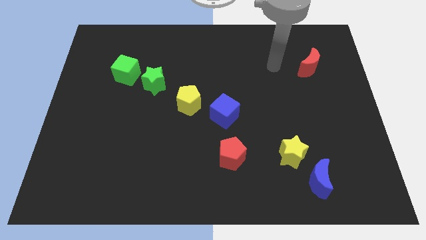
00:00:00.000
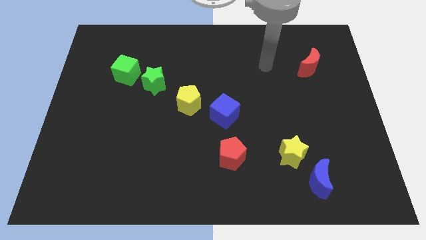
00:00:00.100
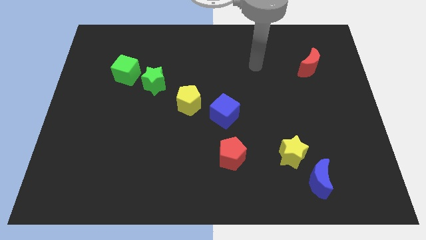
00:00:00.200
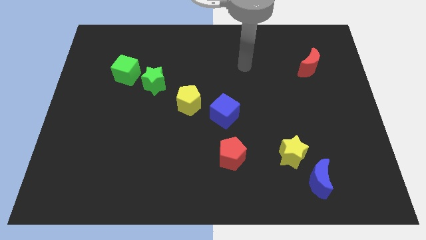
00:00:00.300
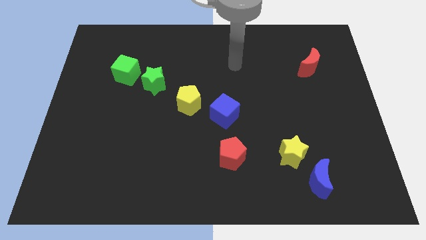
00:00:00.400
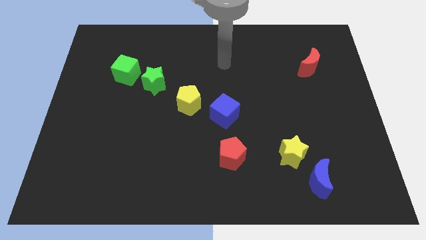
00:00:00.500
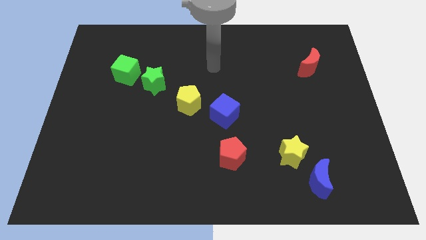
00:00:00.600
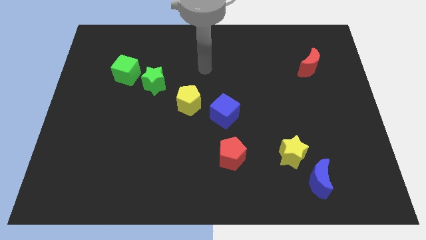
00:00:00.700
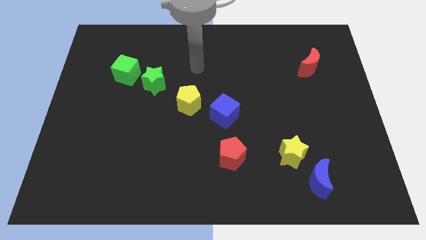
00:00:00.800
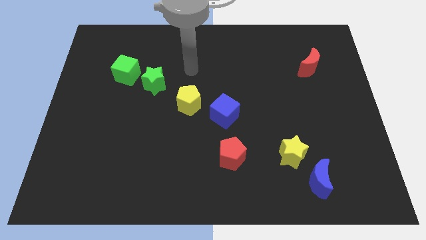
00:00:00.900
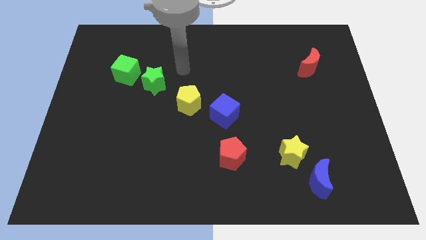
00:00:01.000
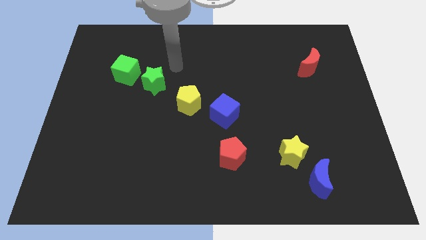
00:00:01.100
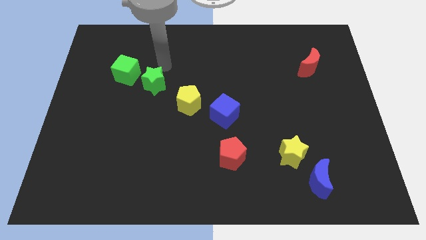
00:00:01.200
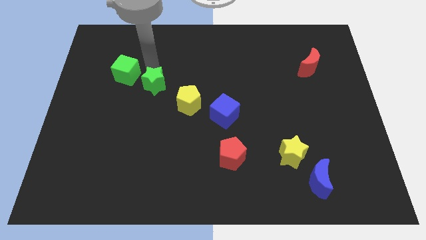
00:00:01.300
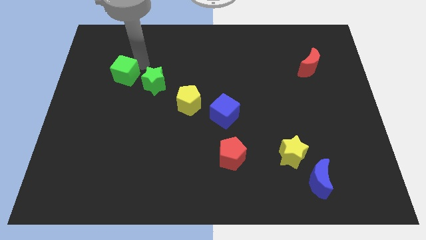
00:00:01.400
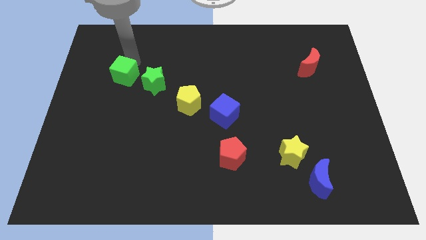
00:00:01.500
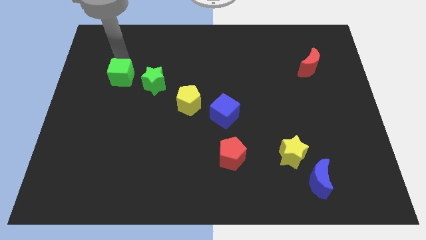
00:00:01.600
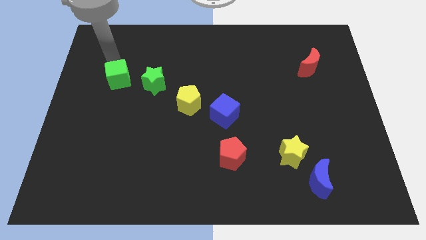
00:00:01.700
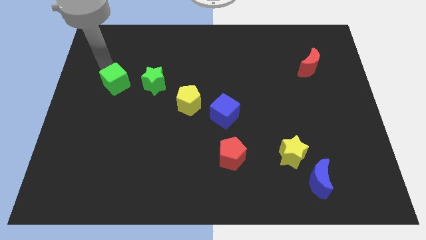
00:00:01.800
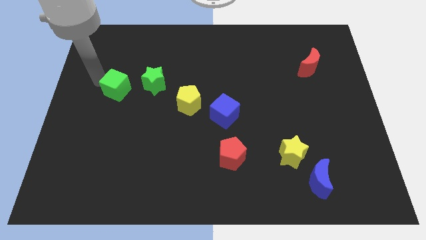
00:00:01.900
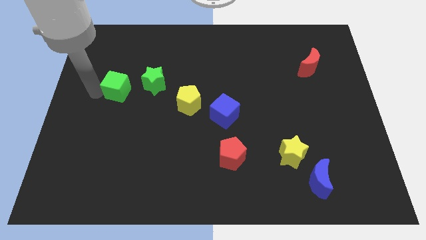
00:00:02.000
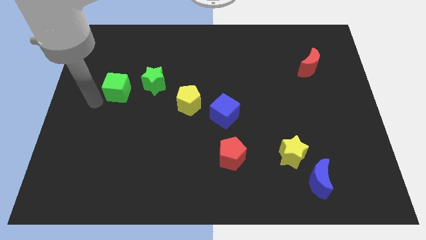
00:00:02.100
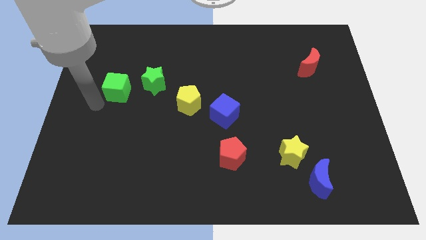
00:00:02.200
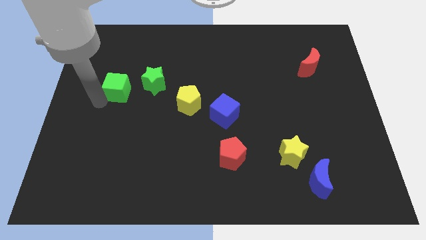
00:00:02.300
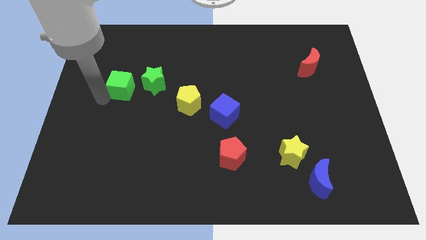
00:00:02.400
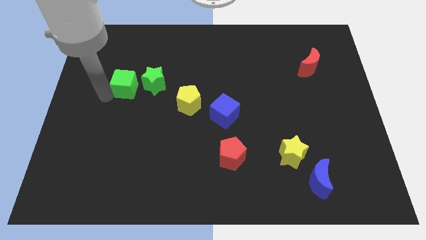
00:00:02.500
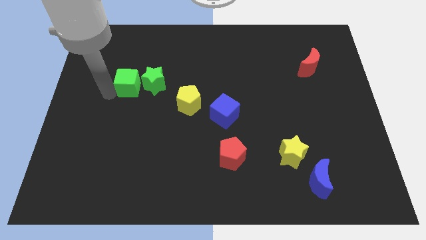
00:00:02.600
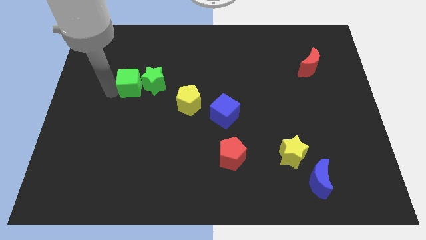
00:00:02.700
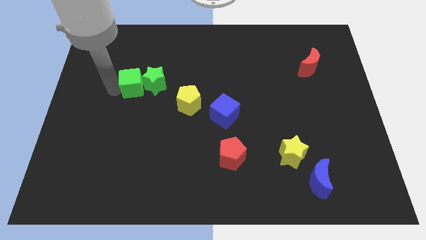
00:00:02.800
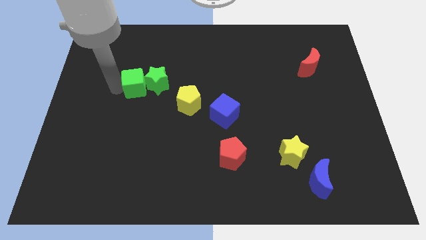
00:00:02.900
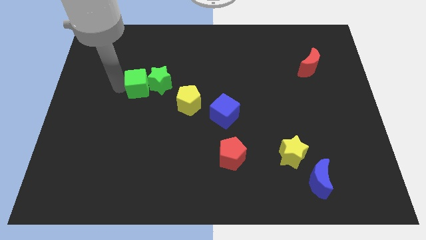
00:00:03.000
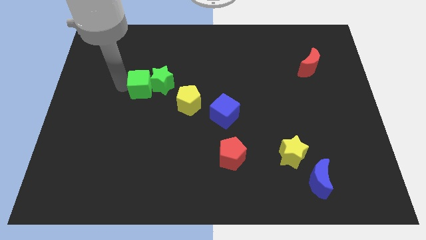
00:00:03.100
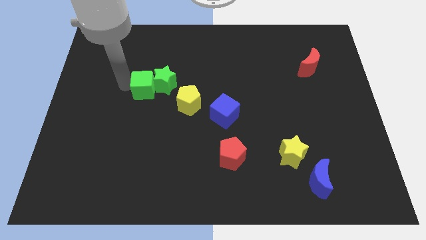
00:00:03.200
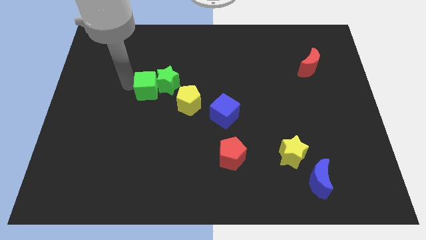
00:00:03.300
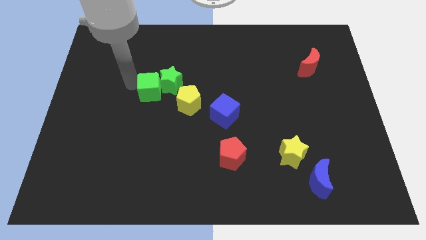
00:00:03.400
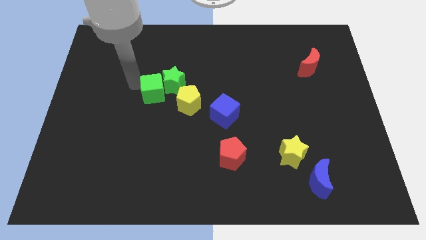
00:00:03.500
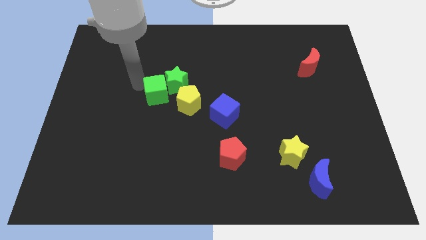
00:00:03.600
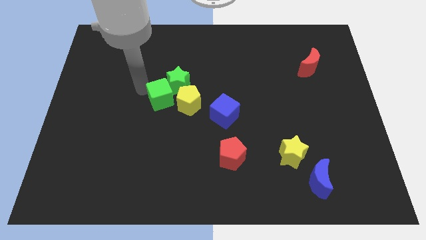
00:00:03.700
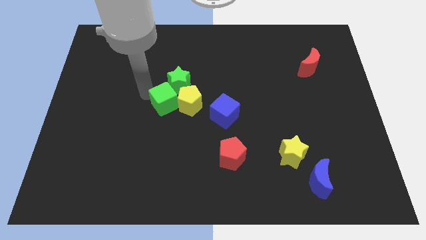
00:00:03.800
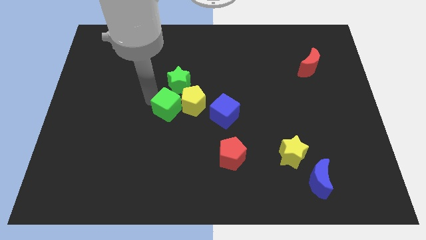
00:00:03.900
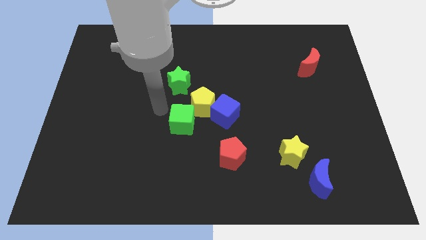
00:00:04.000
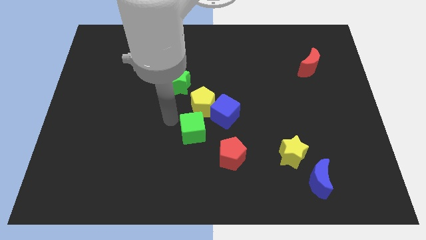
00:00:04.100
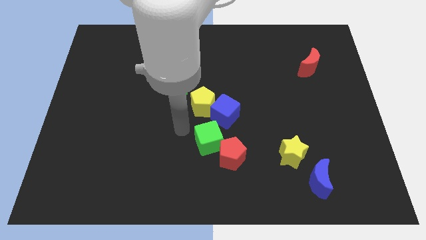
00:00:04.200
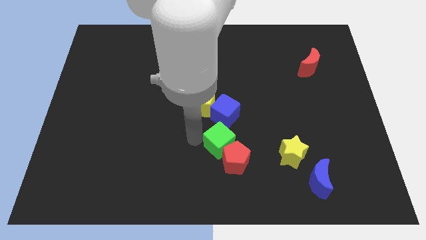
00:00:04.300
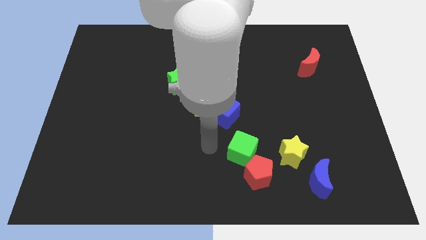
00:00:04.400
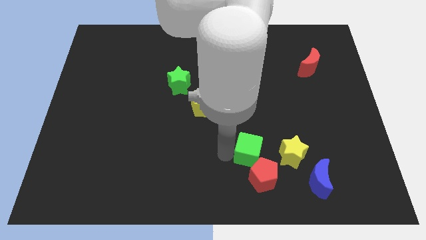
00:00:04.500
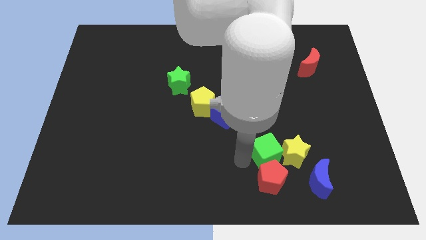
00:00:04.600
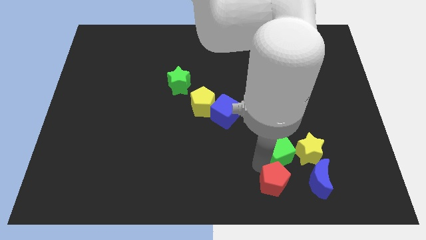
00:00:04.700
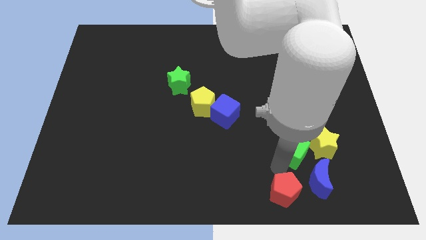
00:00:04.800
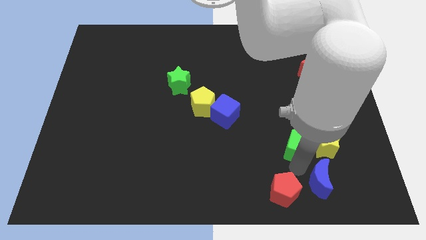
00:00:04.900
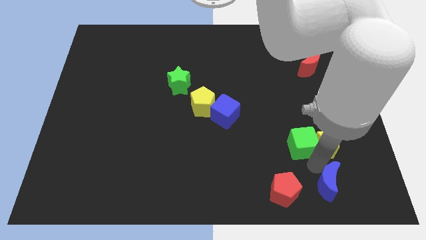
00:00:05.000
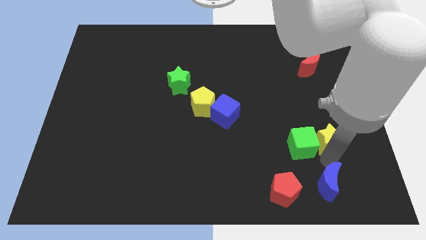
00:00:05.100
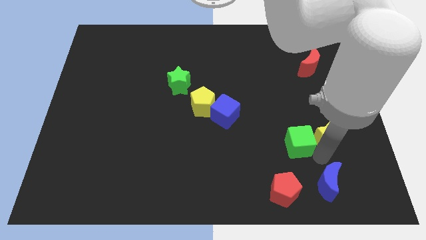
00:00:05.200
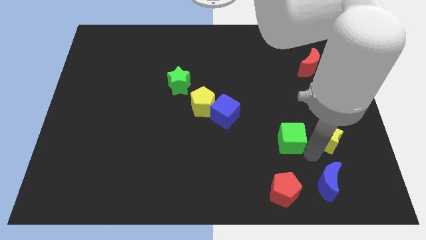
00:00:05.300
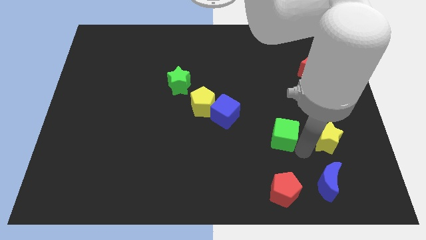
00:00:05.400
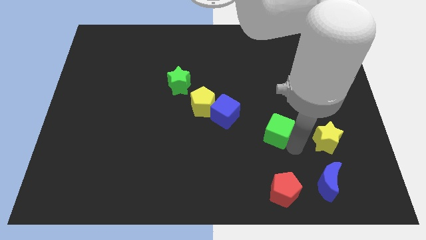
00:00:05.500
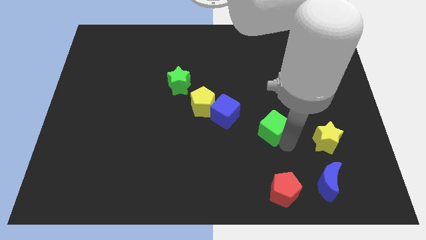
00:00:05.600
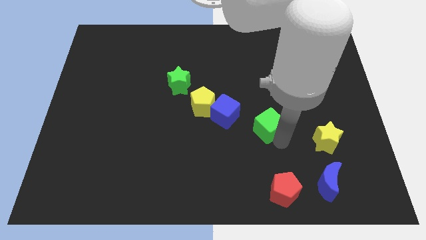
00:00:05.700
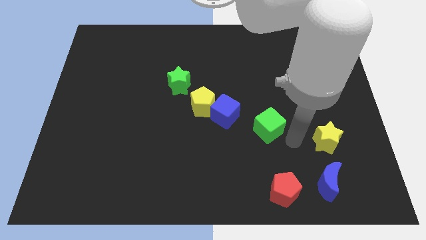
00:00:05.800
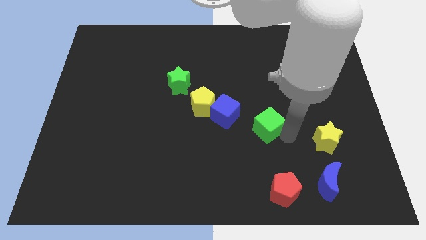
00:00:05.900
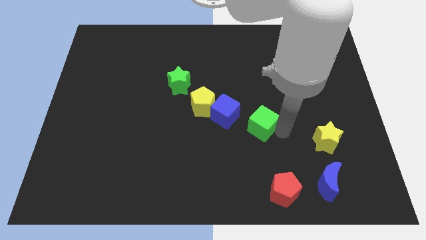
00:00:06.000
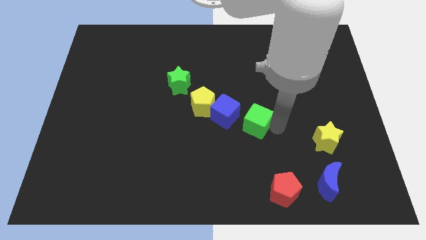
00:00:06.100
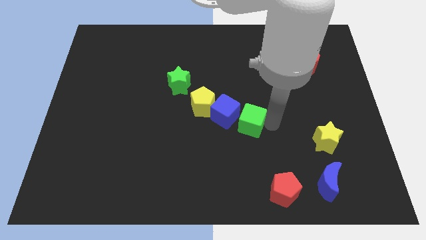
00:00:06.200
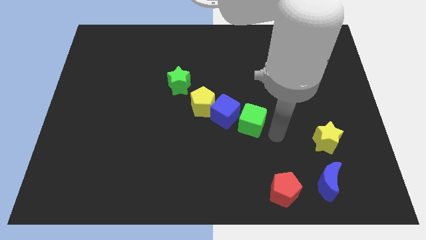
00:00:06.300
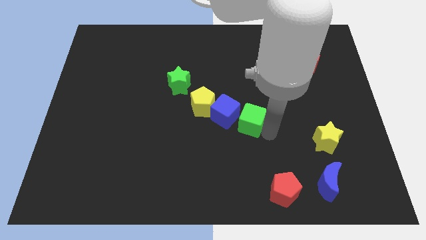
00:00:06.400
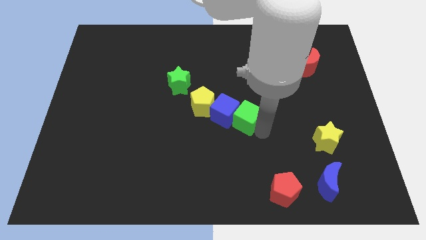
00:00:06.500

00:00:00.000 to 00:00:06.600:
slide the green cube to the blue cube

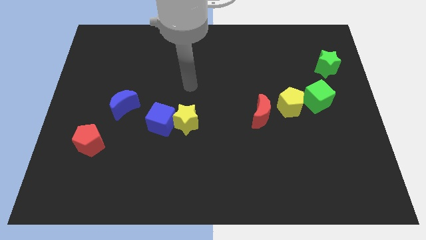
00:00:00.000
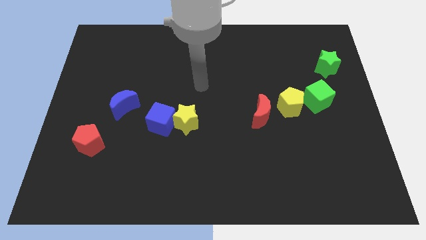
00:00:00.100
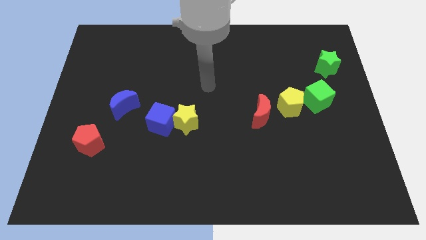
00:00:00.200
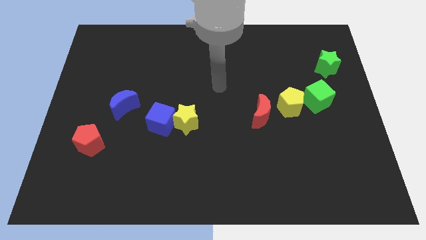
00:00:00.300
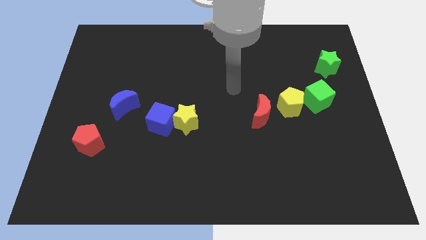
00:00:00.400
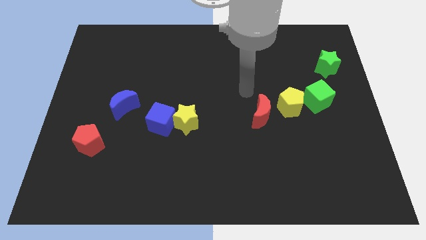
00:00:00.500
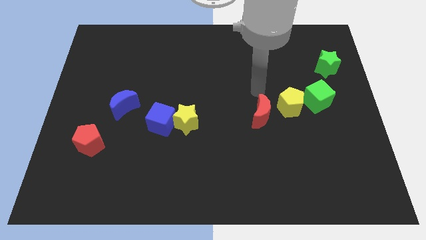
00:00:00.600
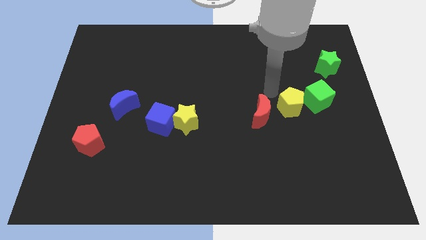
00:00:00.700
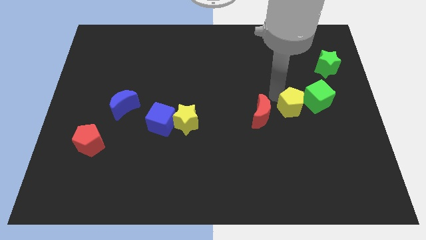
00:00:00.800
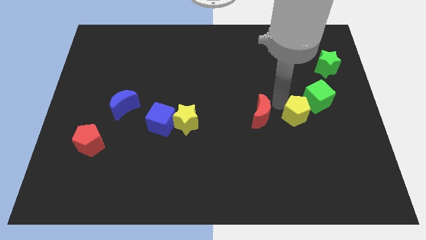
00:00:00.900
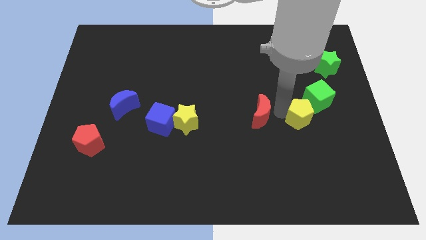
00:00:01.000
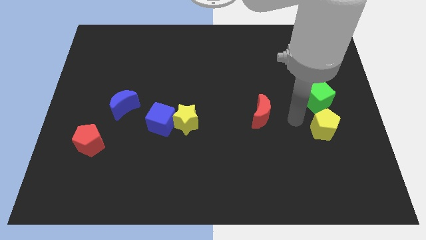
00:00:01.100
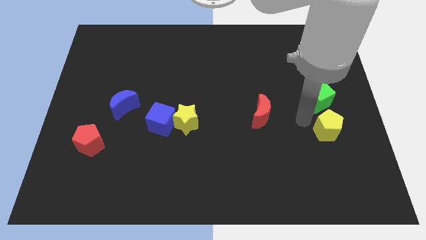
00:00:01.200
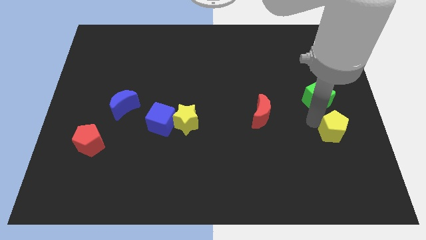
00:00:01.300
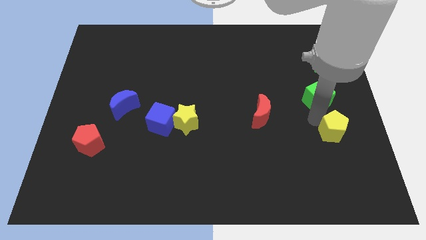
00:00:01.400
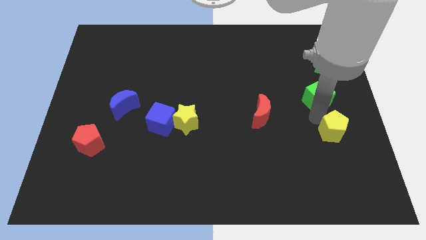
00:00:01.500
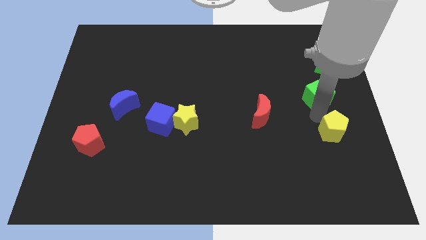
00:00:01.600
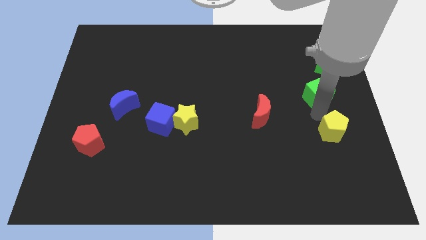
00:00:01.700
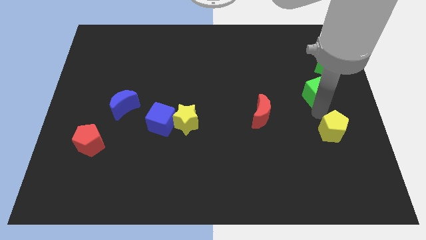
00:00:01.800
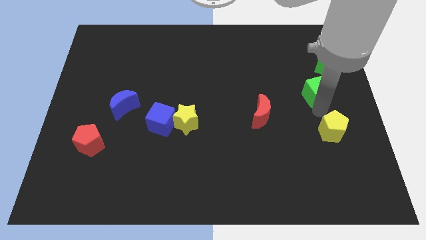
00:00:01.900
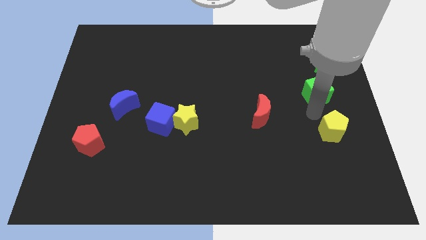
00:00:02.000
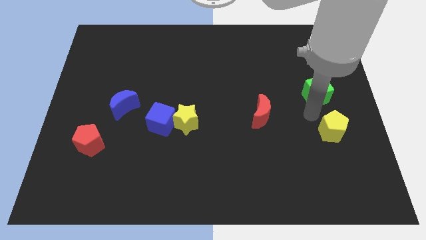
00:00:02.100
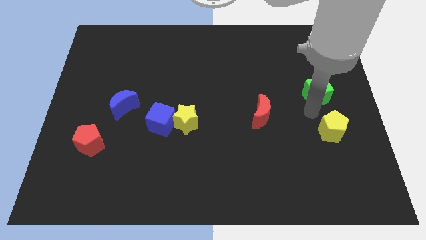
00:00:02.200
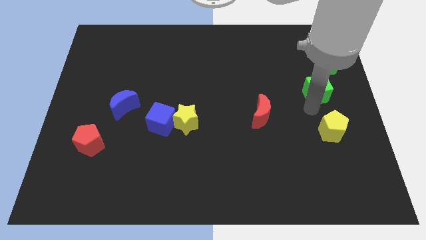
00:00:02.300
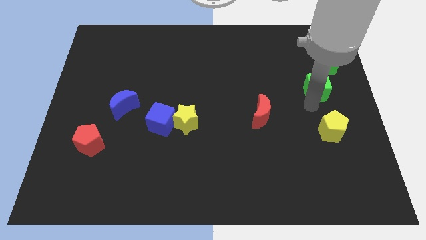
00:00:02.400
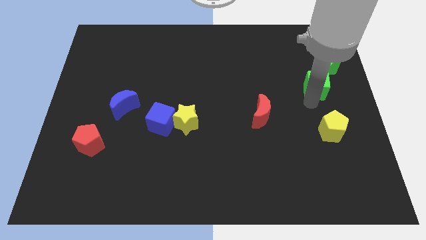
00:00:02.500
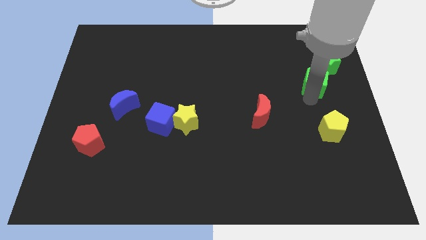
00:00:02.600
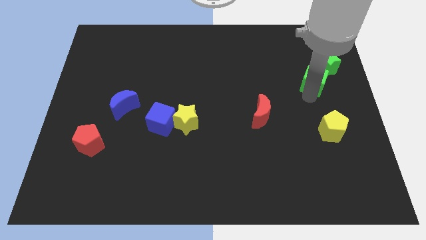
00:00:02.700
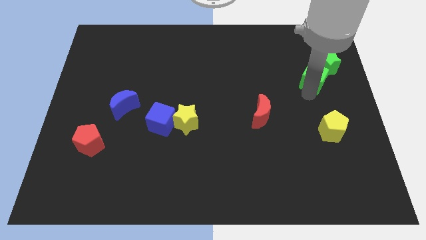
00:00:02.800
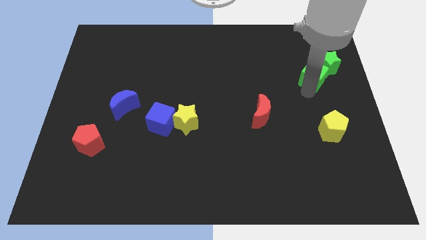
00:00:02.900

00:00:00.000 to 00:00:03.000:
put the green cube close to the green star
